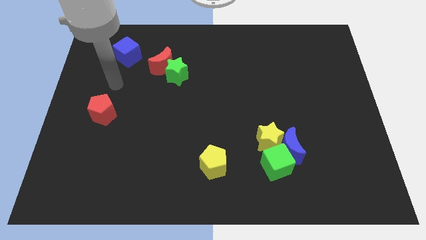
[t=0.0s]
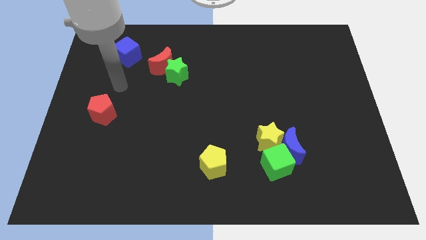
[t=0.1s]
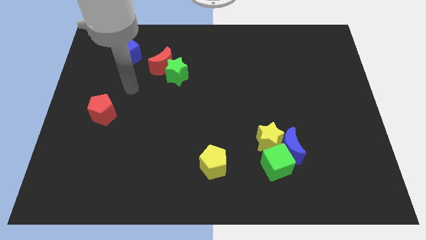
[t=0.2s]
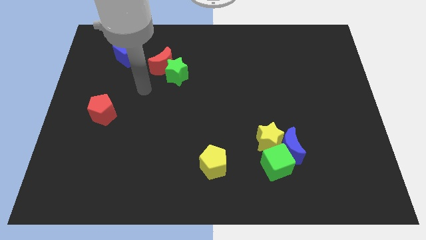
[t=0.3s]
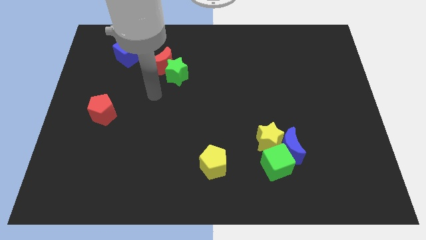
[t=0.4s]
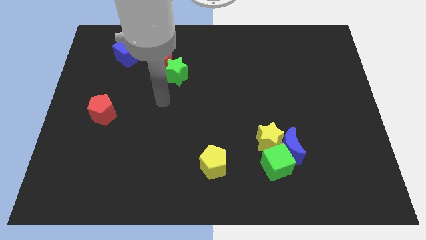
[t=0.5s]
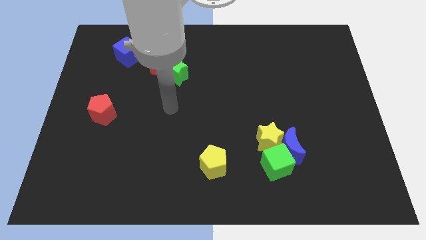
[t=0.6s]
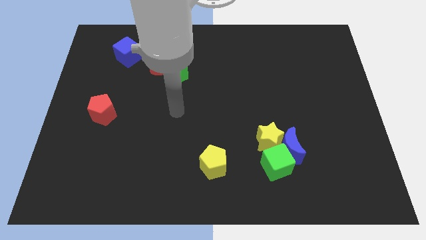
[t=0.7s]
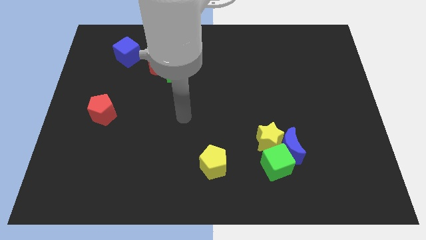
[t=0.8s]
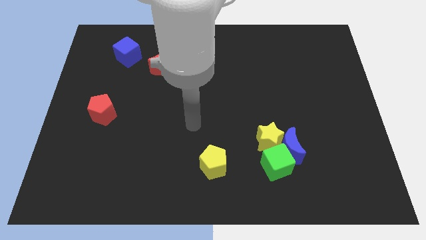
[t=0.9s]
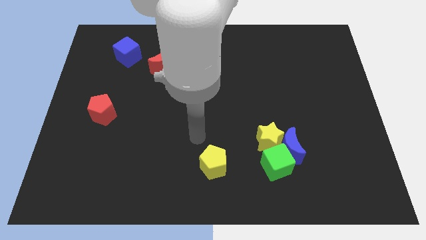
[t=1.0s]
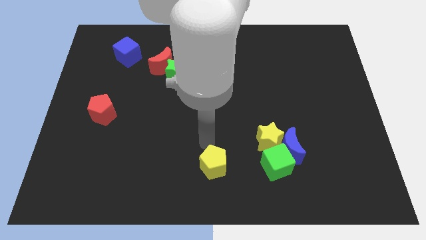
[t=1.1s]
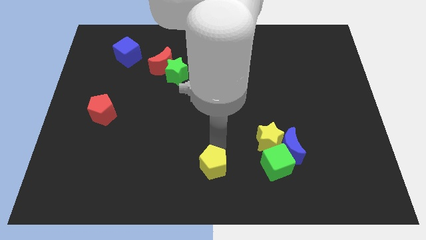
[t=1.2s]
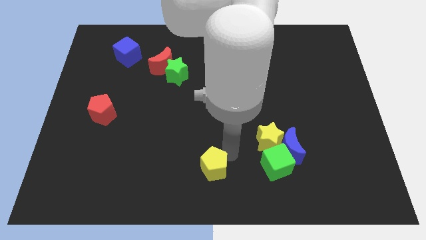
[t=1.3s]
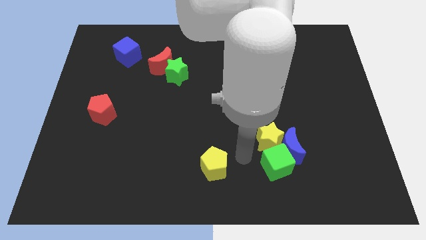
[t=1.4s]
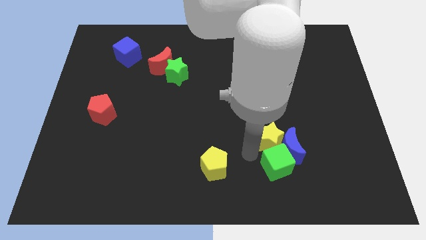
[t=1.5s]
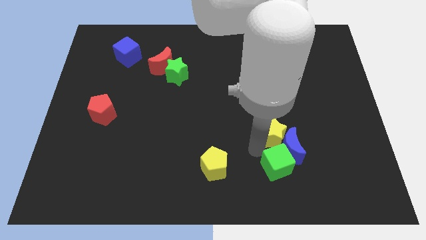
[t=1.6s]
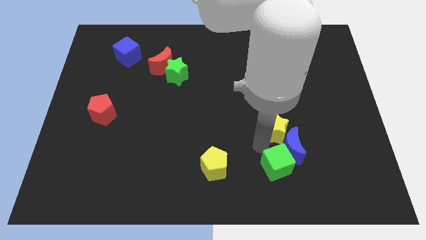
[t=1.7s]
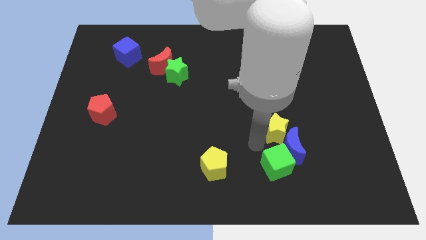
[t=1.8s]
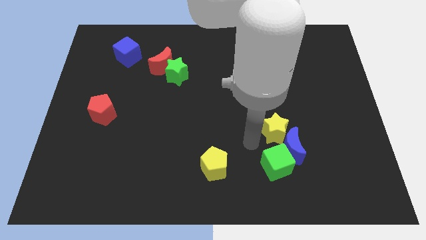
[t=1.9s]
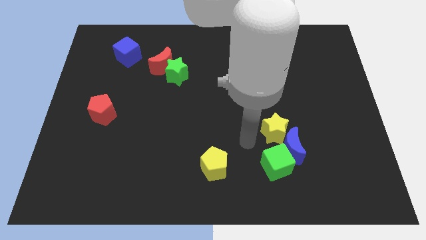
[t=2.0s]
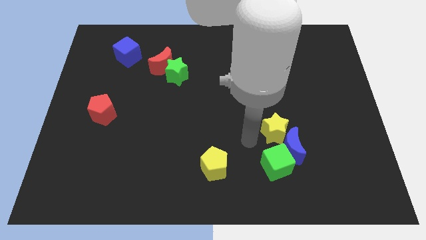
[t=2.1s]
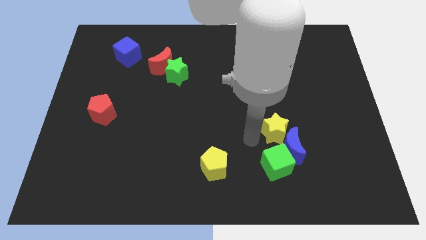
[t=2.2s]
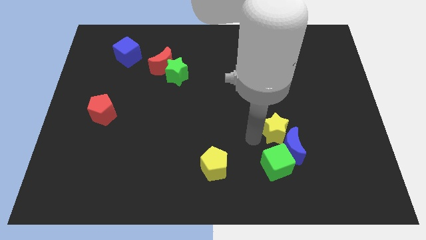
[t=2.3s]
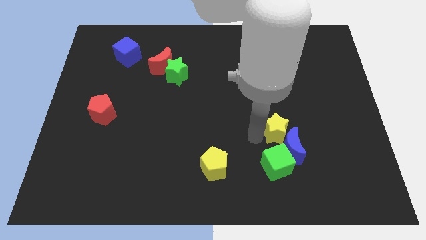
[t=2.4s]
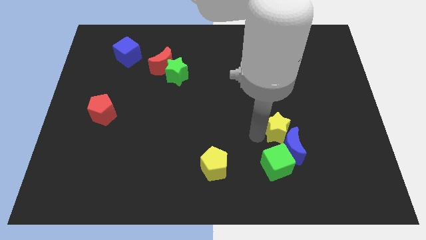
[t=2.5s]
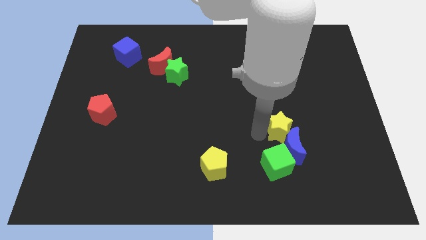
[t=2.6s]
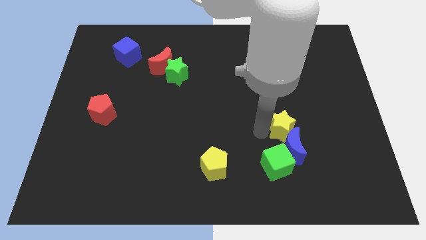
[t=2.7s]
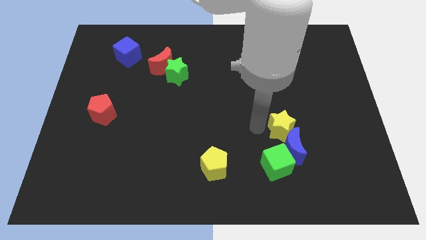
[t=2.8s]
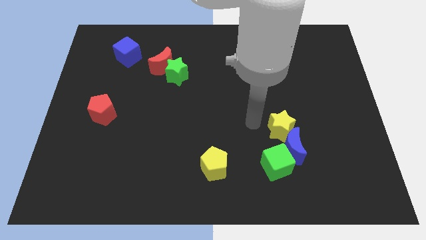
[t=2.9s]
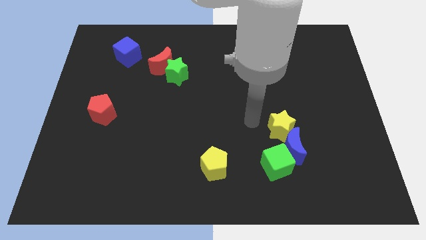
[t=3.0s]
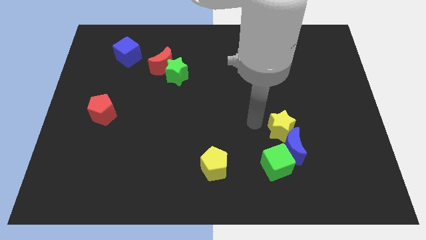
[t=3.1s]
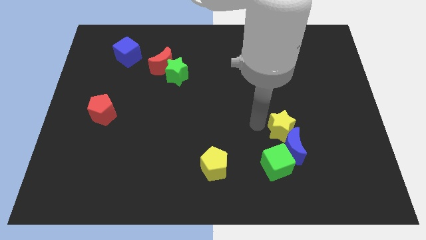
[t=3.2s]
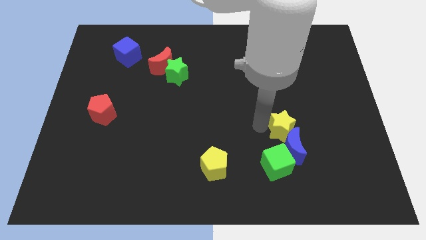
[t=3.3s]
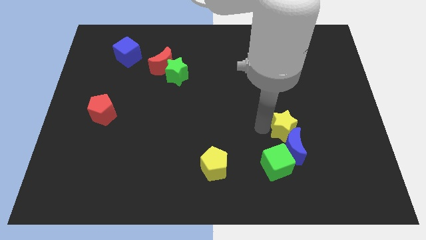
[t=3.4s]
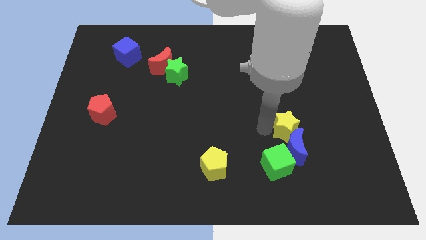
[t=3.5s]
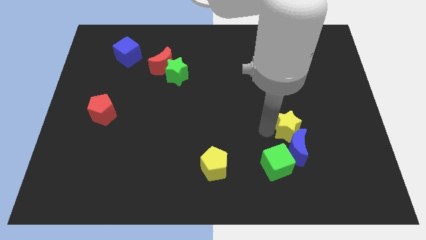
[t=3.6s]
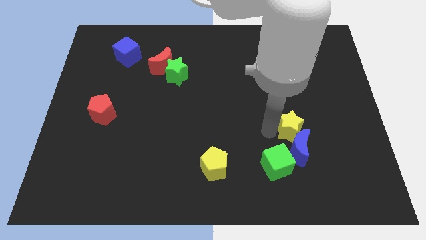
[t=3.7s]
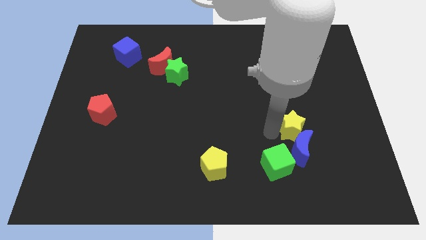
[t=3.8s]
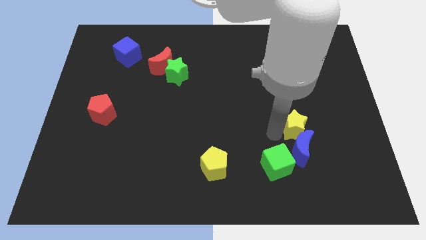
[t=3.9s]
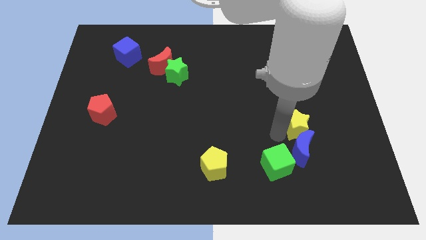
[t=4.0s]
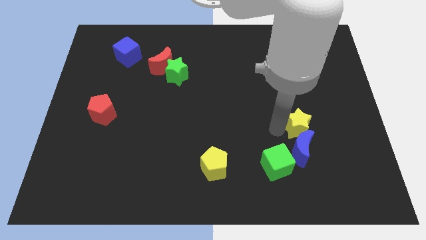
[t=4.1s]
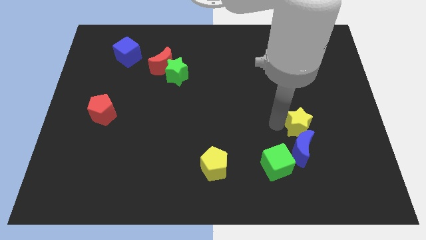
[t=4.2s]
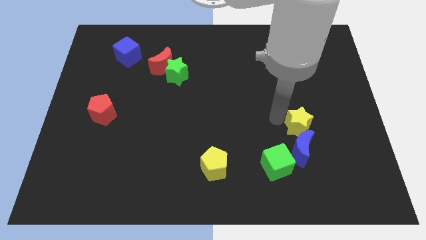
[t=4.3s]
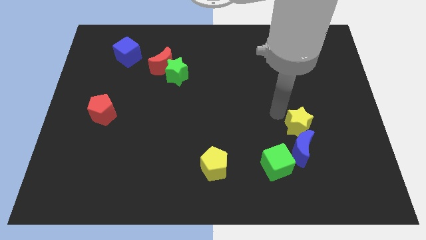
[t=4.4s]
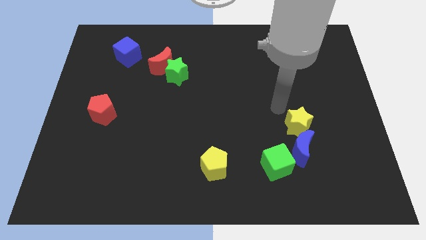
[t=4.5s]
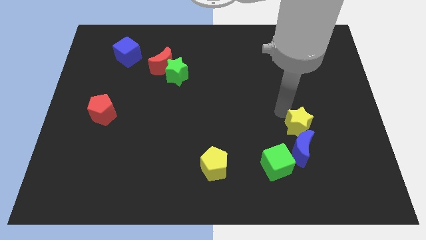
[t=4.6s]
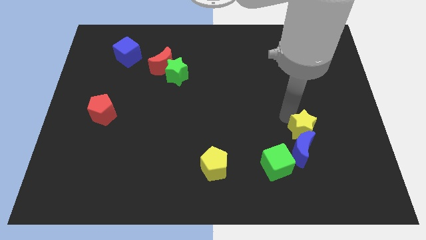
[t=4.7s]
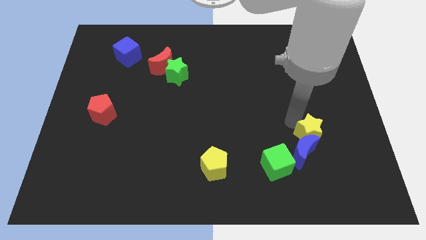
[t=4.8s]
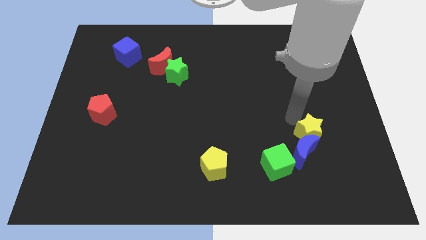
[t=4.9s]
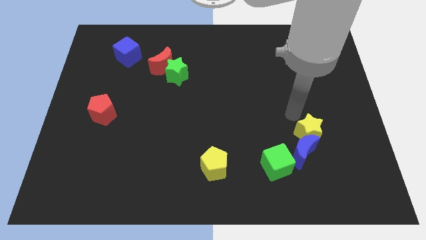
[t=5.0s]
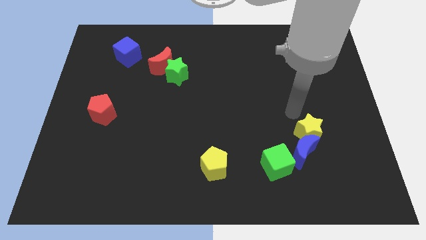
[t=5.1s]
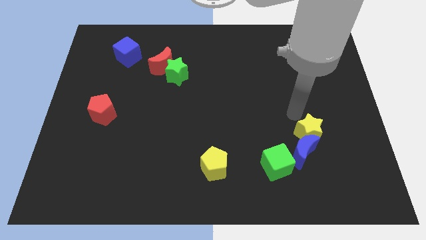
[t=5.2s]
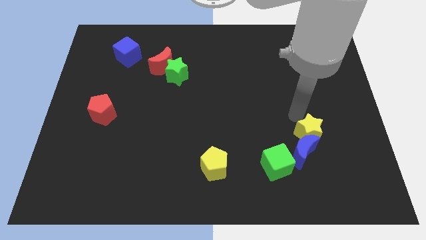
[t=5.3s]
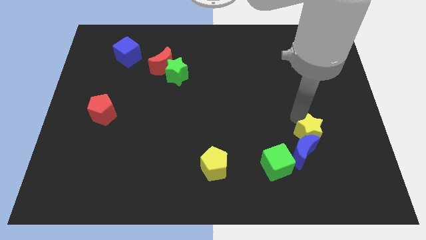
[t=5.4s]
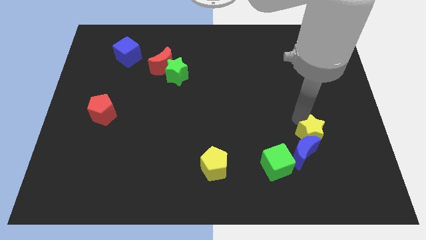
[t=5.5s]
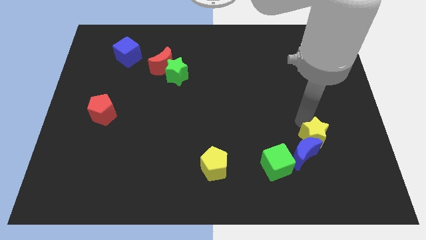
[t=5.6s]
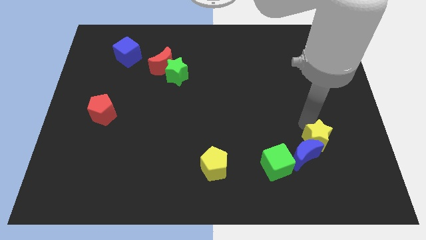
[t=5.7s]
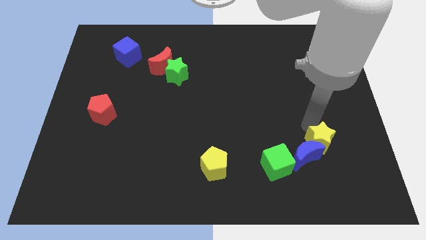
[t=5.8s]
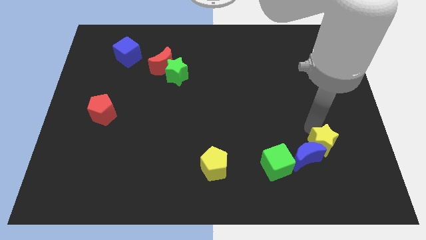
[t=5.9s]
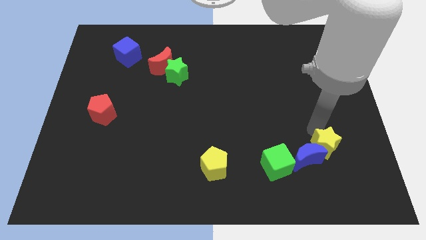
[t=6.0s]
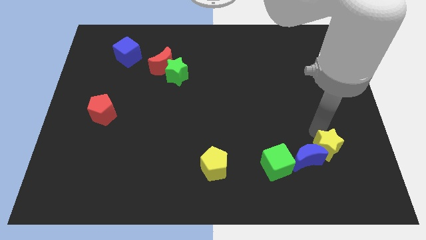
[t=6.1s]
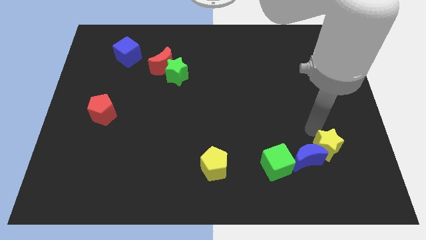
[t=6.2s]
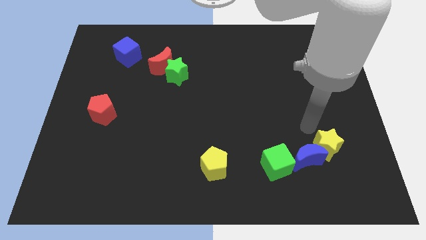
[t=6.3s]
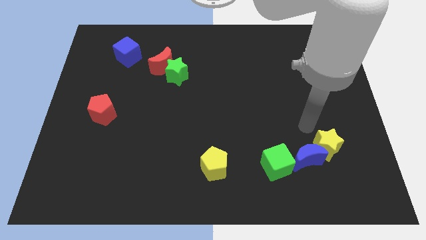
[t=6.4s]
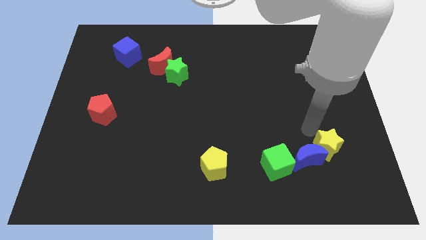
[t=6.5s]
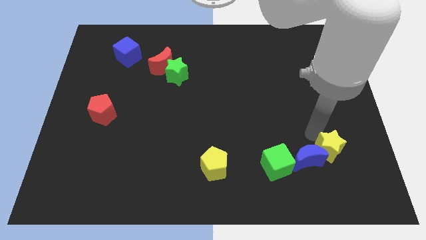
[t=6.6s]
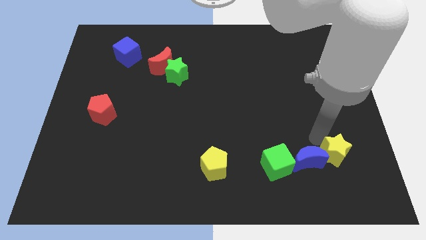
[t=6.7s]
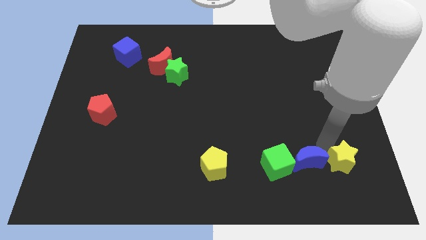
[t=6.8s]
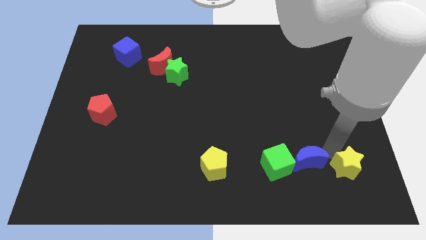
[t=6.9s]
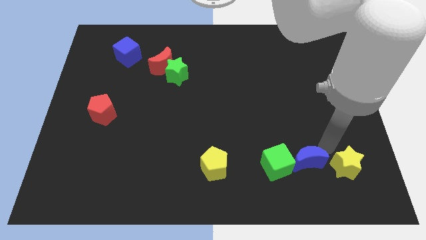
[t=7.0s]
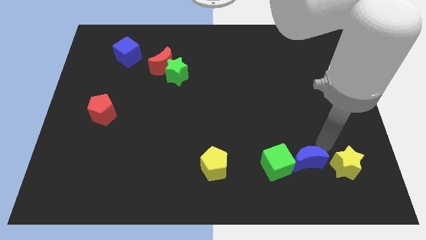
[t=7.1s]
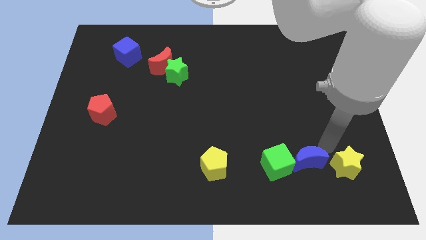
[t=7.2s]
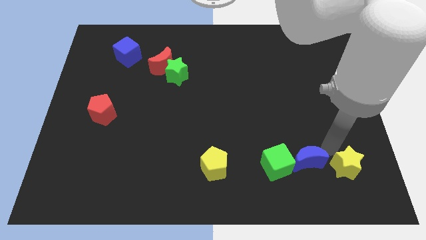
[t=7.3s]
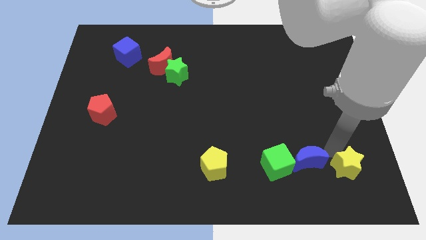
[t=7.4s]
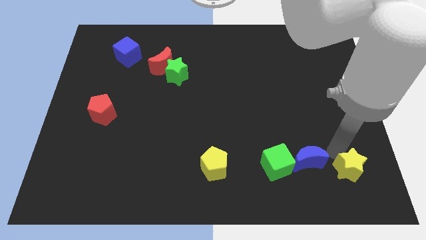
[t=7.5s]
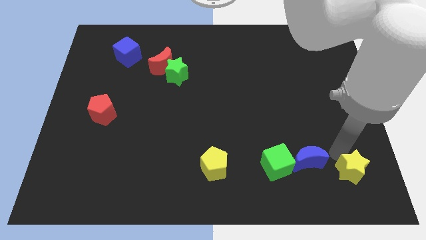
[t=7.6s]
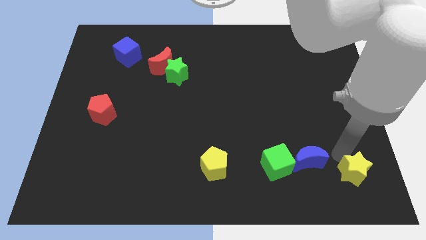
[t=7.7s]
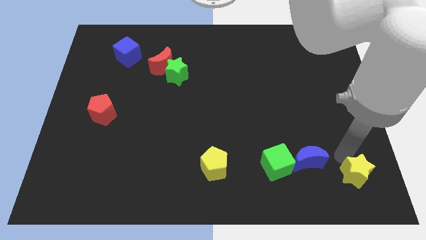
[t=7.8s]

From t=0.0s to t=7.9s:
push the yellow star to the bottom right corner
